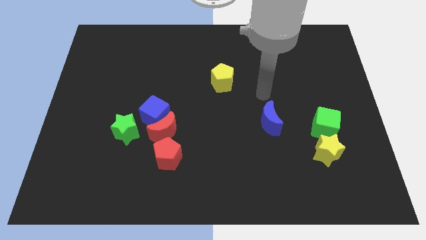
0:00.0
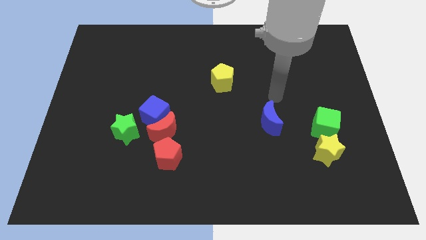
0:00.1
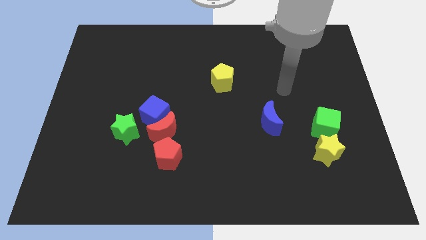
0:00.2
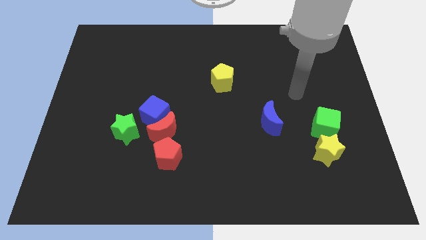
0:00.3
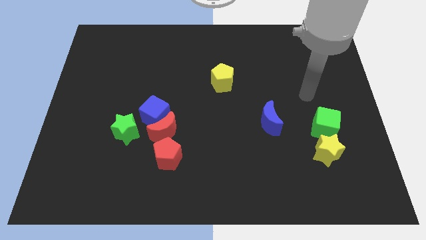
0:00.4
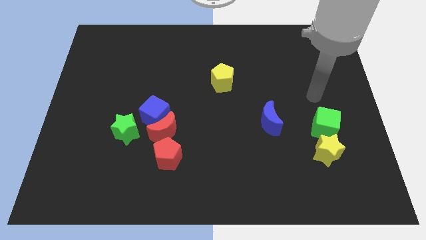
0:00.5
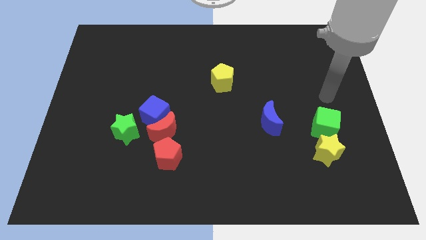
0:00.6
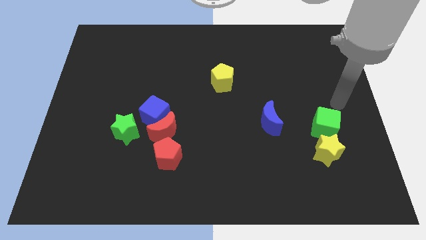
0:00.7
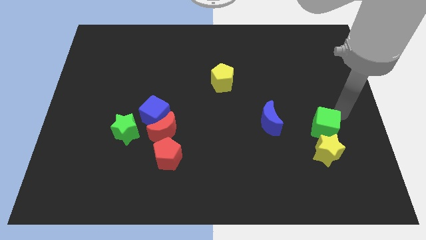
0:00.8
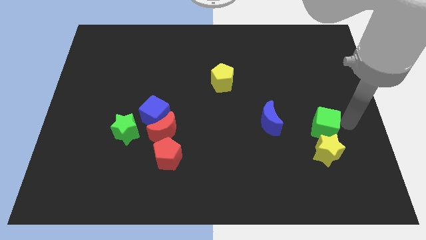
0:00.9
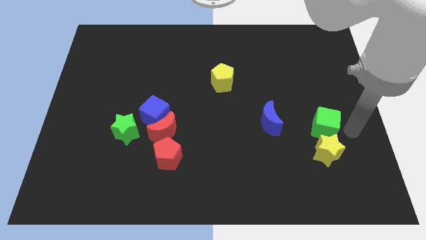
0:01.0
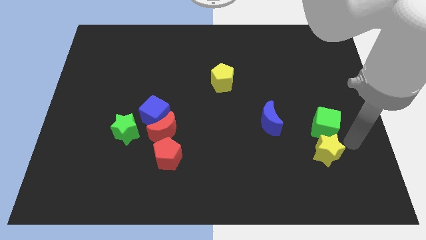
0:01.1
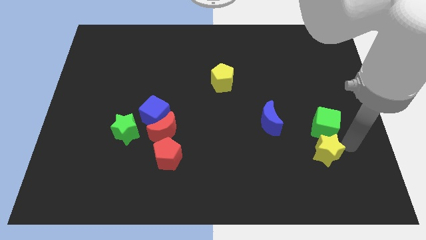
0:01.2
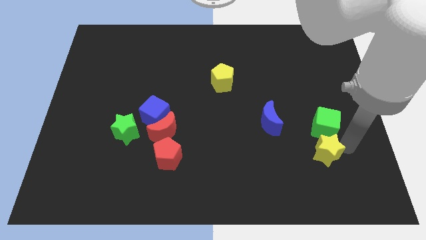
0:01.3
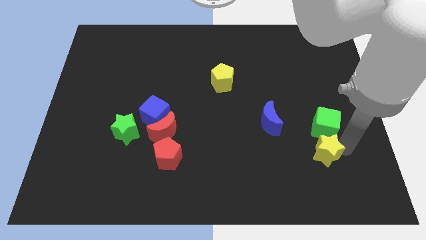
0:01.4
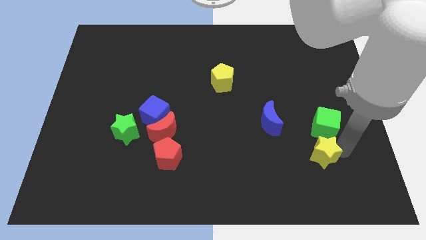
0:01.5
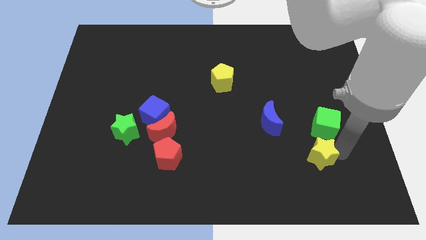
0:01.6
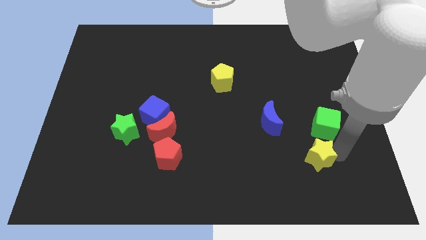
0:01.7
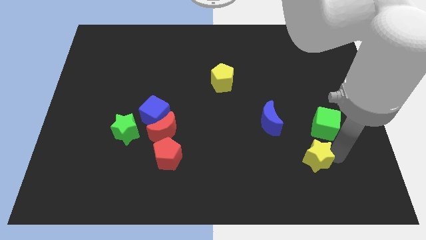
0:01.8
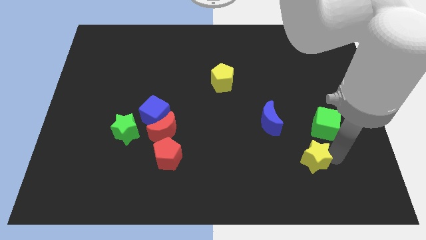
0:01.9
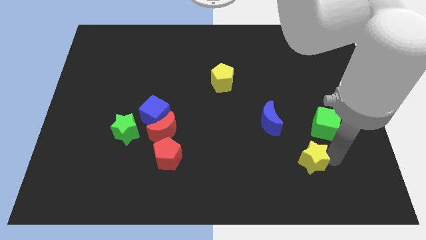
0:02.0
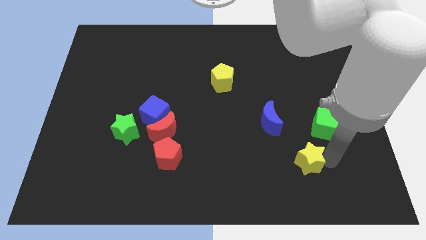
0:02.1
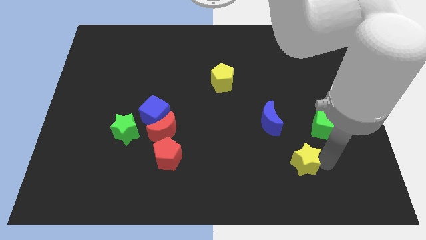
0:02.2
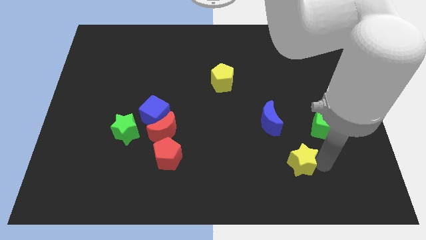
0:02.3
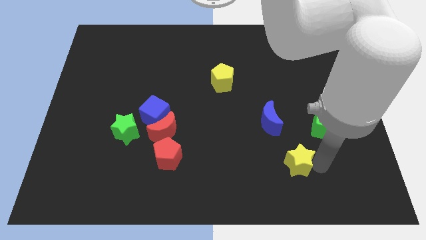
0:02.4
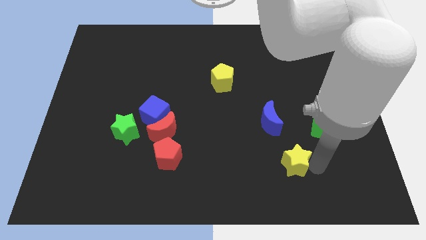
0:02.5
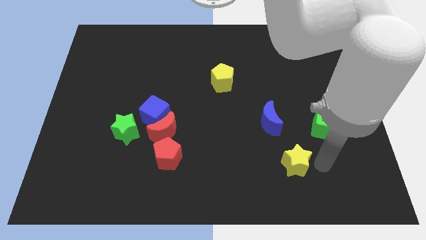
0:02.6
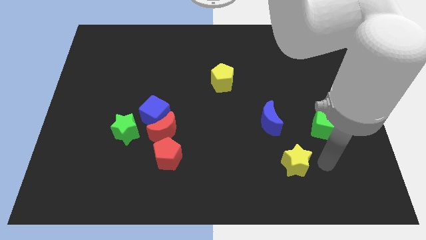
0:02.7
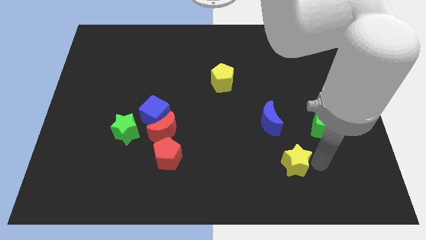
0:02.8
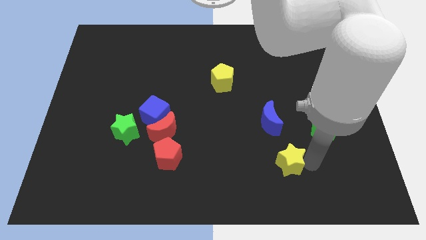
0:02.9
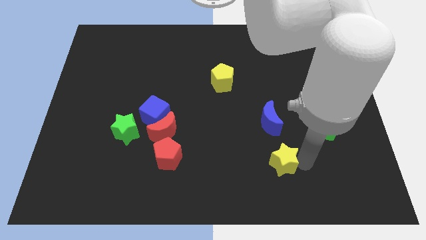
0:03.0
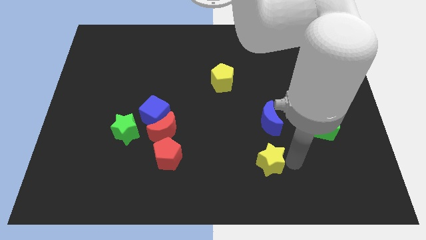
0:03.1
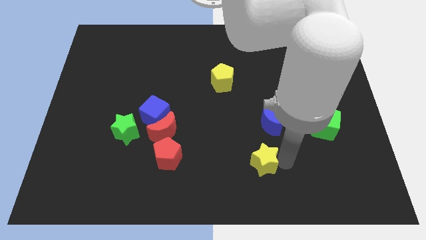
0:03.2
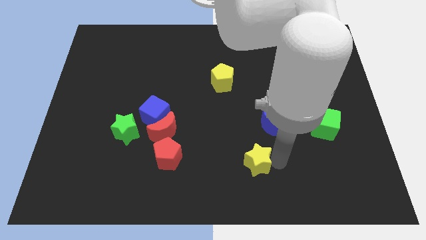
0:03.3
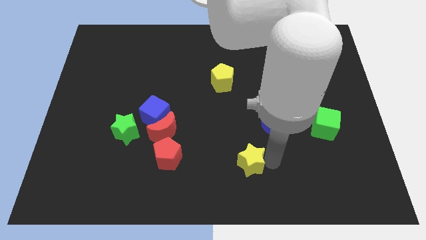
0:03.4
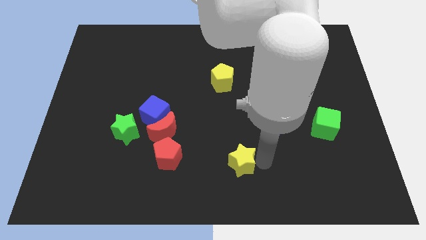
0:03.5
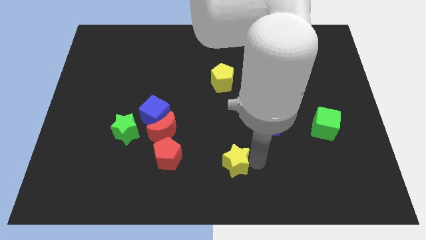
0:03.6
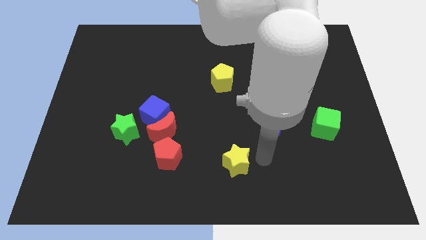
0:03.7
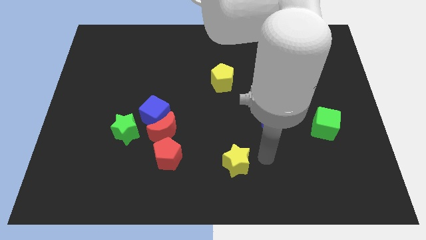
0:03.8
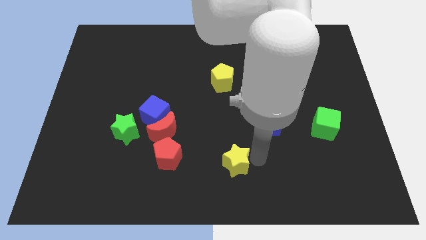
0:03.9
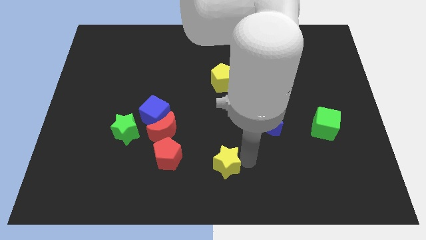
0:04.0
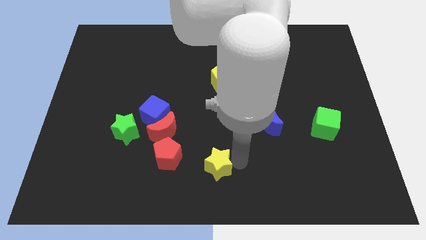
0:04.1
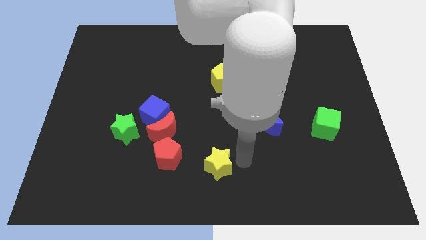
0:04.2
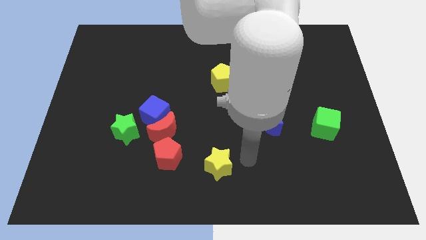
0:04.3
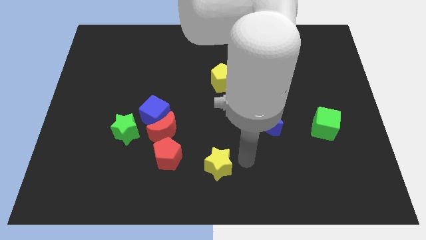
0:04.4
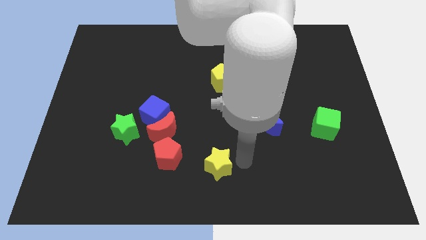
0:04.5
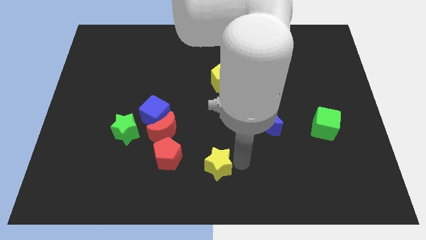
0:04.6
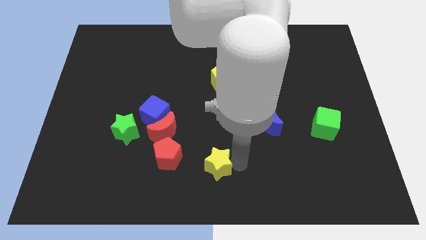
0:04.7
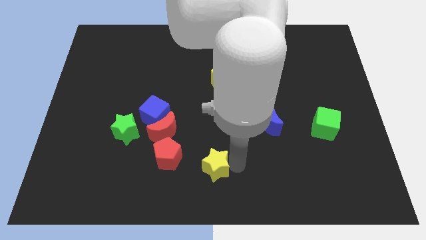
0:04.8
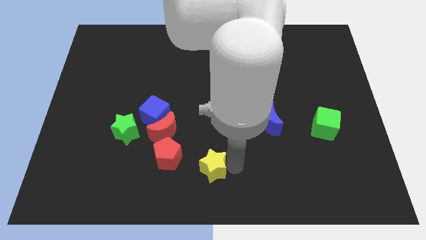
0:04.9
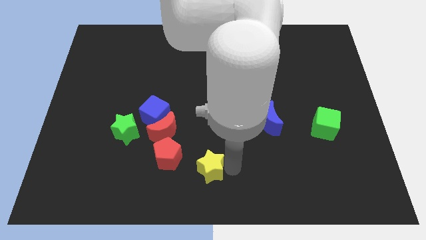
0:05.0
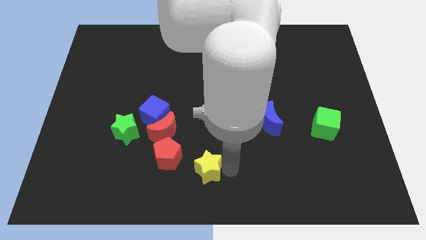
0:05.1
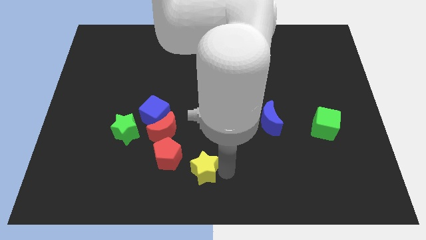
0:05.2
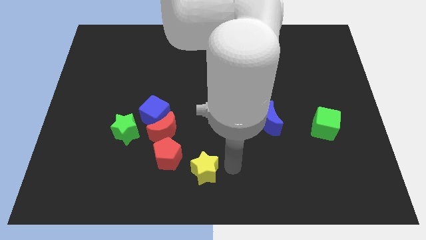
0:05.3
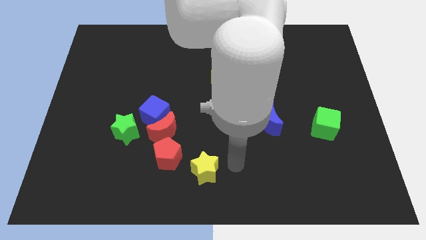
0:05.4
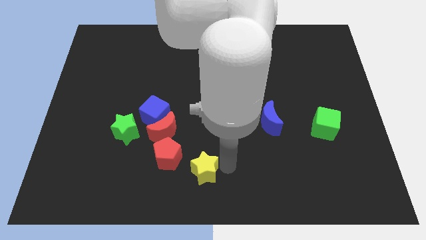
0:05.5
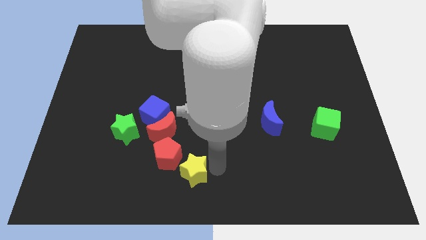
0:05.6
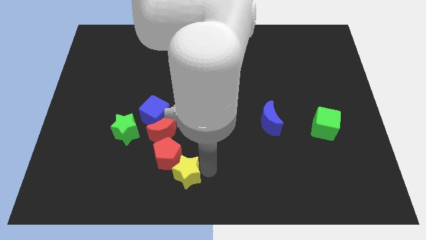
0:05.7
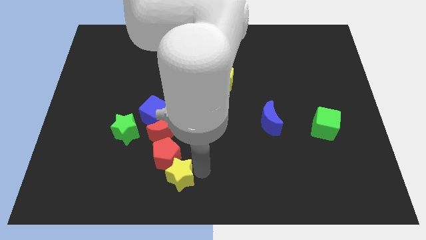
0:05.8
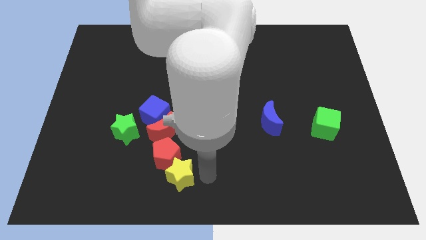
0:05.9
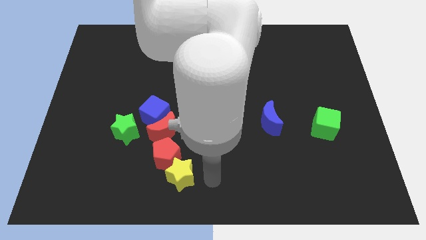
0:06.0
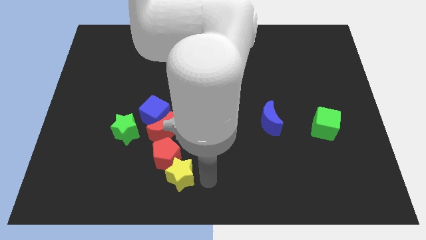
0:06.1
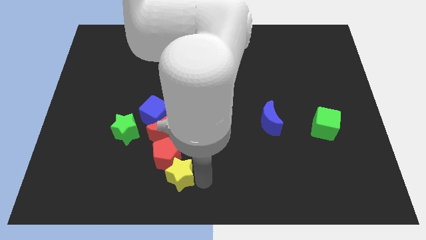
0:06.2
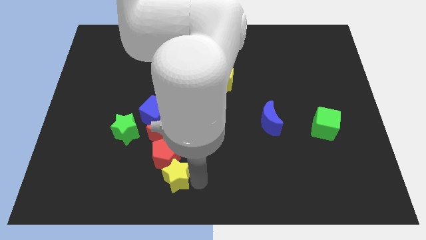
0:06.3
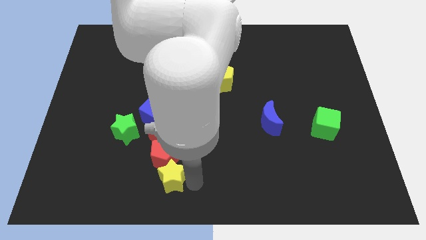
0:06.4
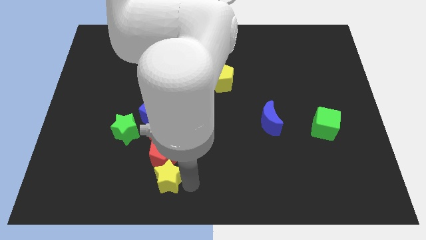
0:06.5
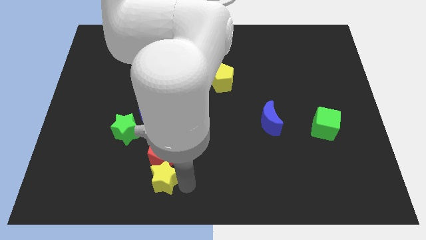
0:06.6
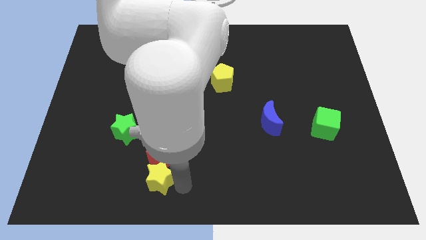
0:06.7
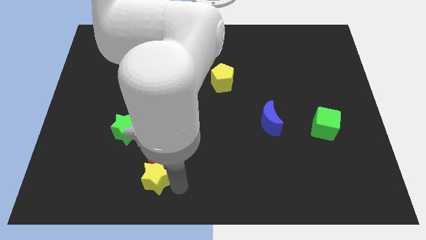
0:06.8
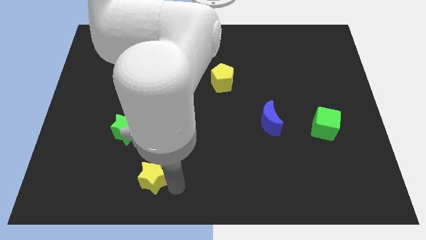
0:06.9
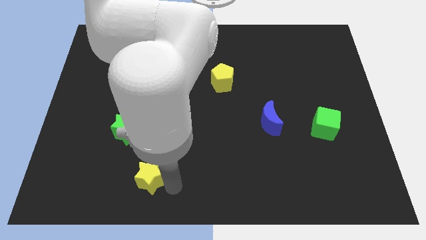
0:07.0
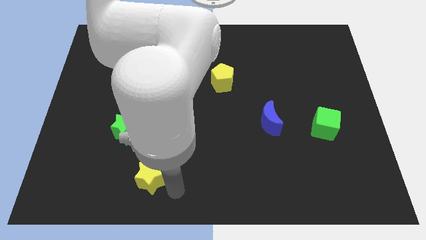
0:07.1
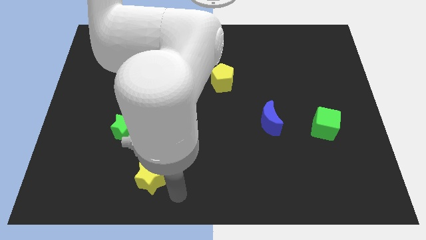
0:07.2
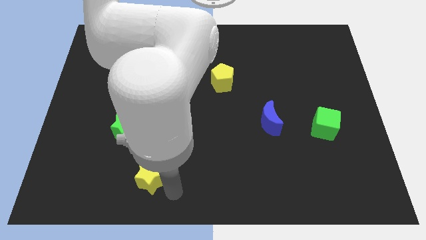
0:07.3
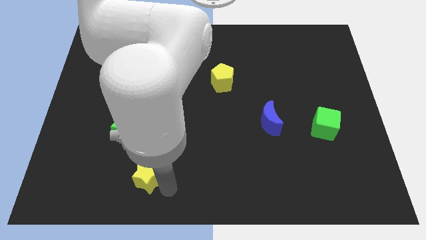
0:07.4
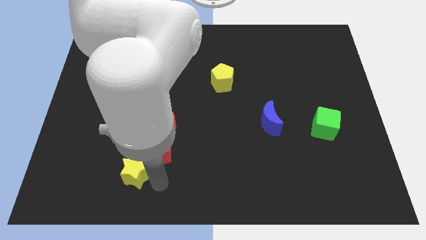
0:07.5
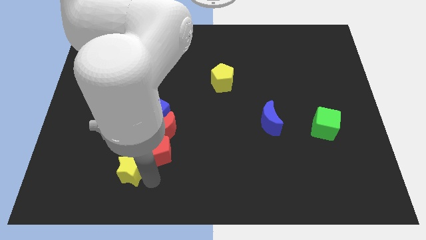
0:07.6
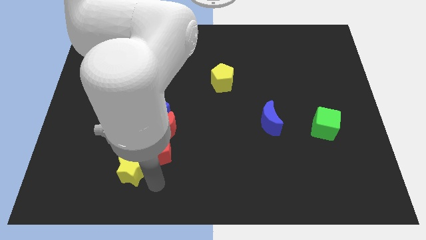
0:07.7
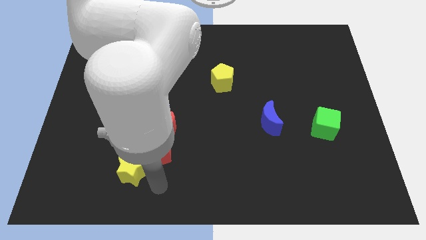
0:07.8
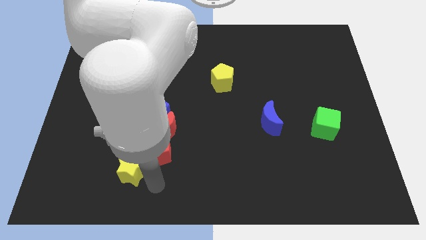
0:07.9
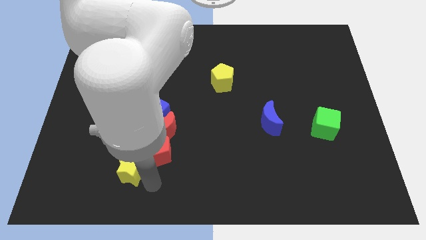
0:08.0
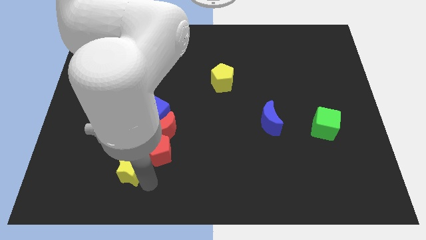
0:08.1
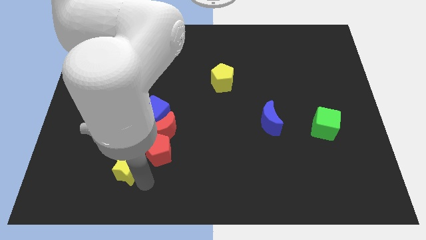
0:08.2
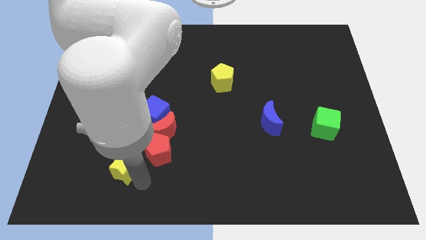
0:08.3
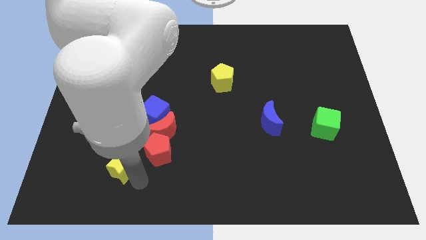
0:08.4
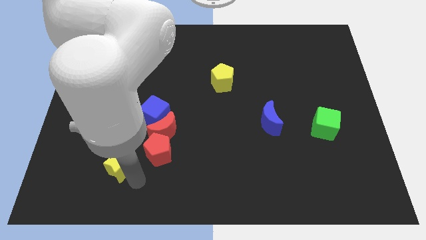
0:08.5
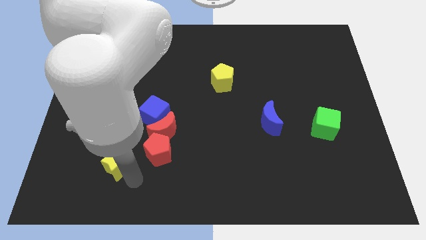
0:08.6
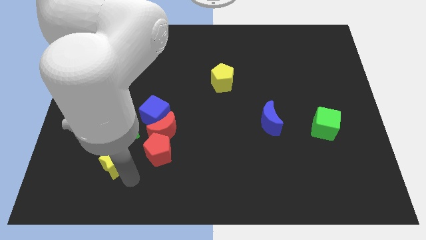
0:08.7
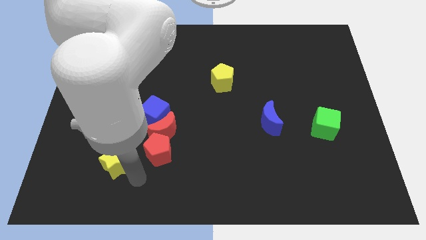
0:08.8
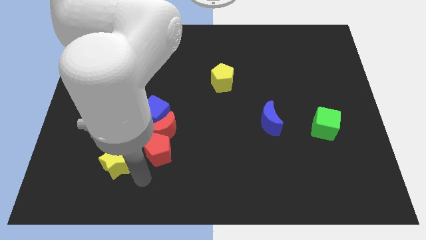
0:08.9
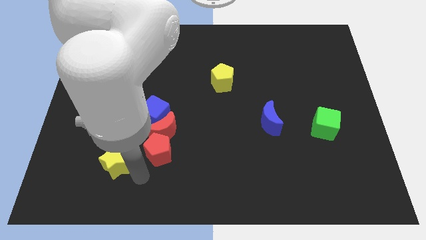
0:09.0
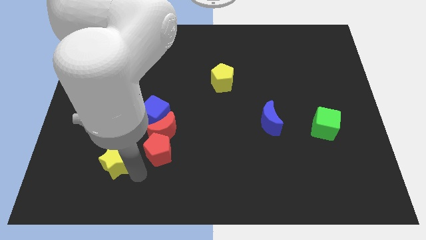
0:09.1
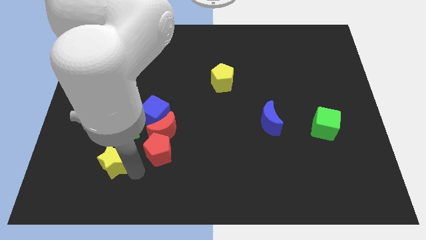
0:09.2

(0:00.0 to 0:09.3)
move the yellow star to the bottom left side of the green star
